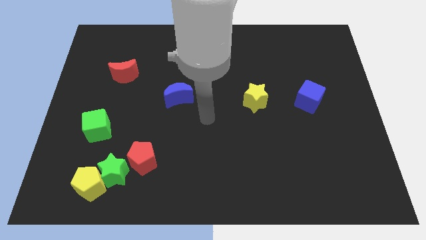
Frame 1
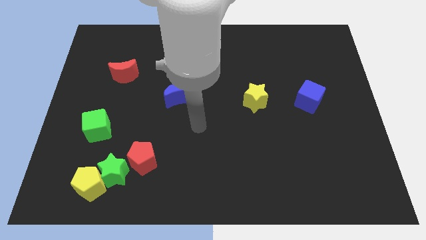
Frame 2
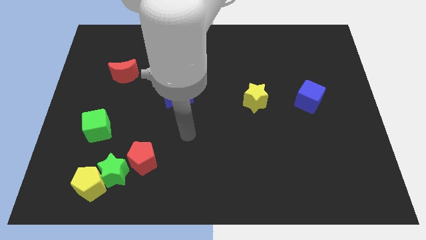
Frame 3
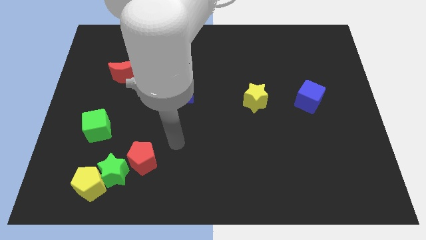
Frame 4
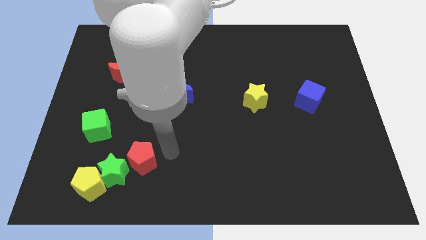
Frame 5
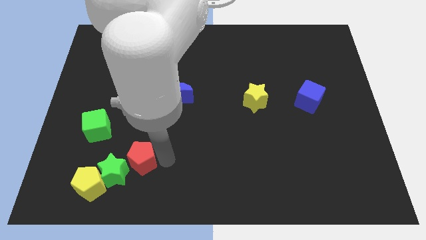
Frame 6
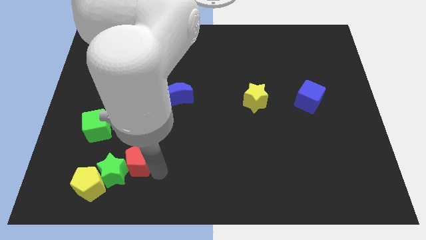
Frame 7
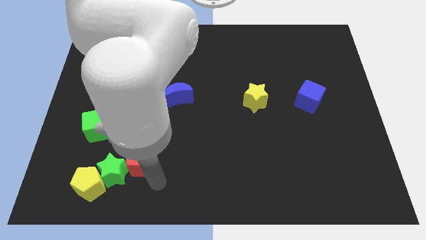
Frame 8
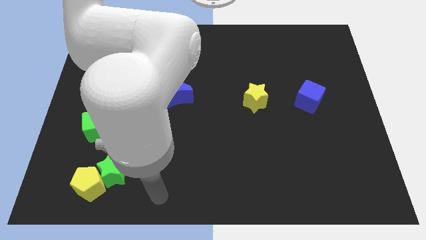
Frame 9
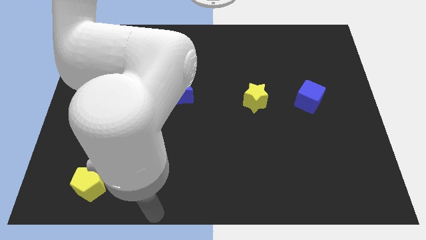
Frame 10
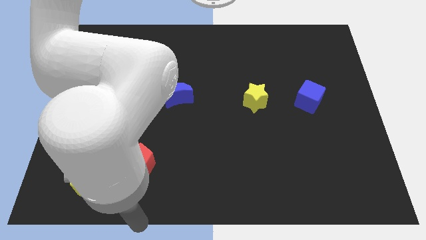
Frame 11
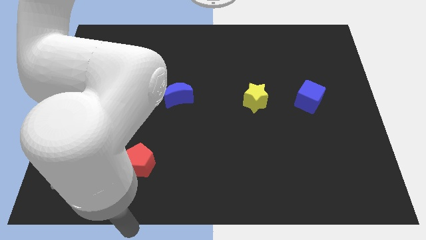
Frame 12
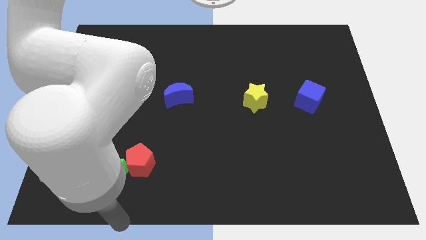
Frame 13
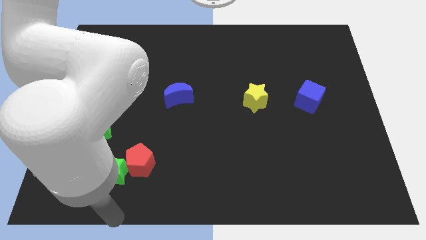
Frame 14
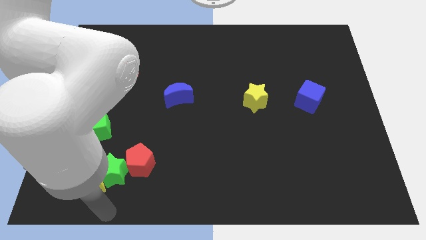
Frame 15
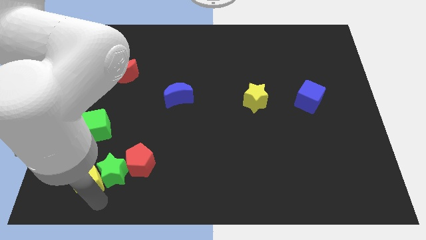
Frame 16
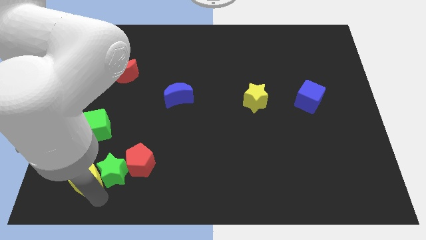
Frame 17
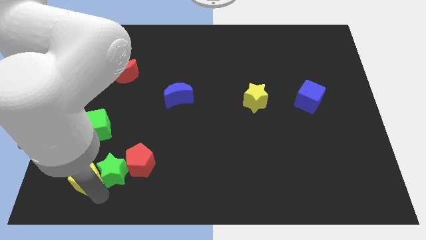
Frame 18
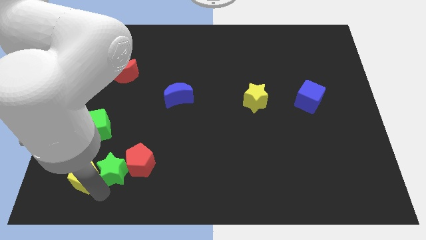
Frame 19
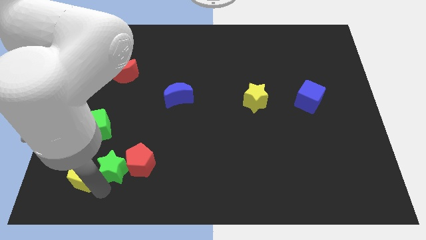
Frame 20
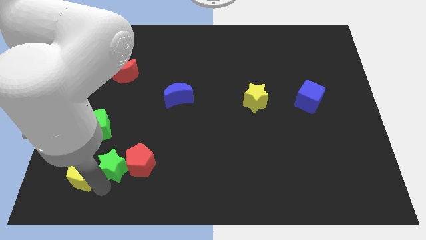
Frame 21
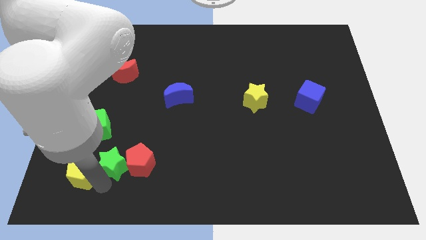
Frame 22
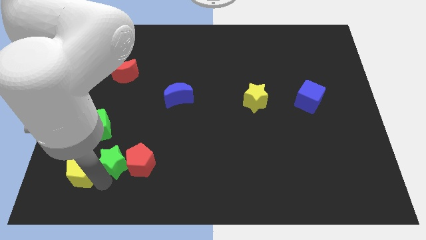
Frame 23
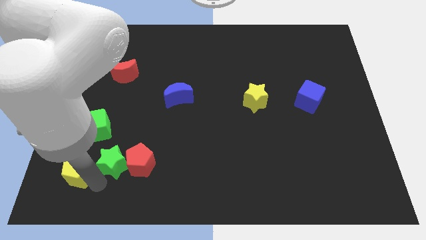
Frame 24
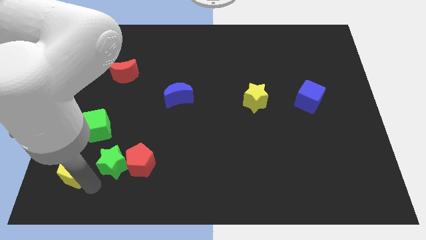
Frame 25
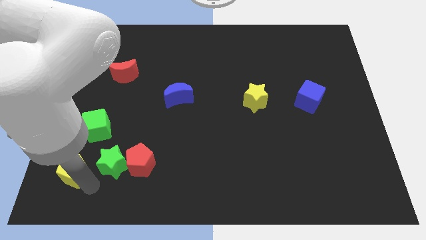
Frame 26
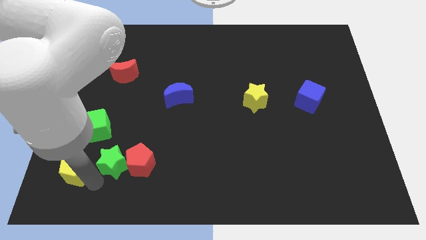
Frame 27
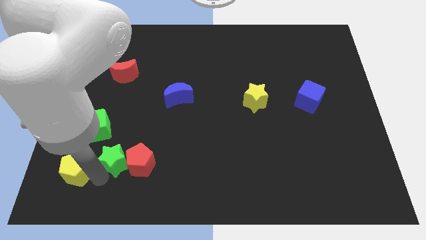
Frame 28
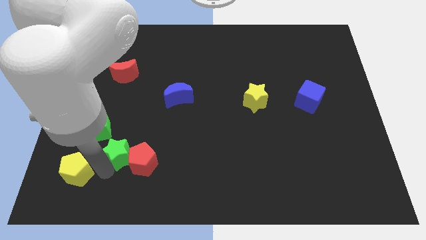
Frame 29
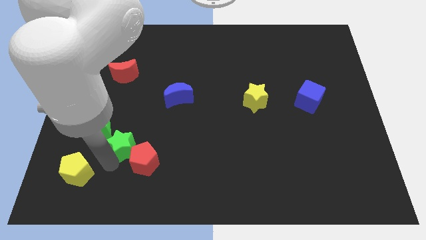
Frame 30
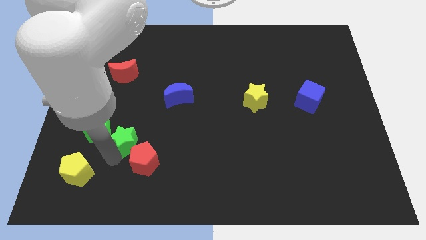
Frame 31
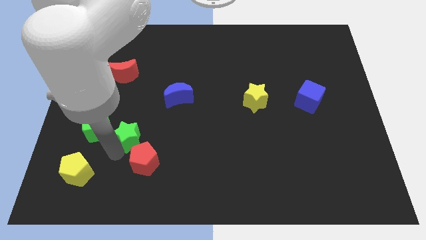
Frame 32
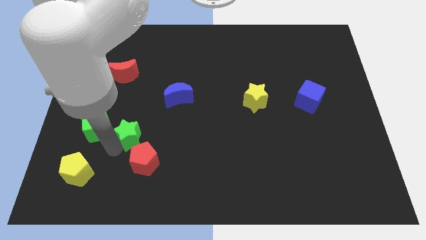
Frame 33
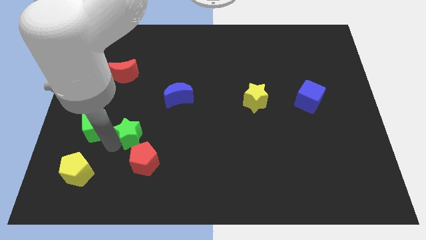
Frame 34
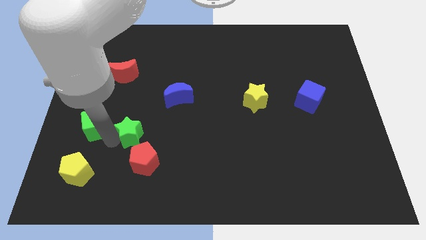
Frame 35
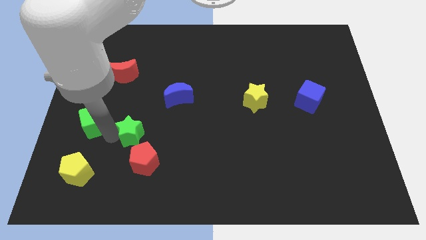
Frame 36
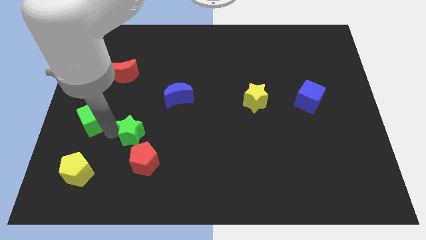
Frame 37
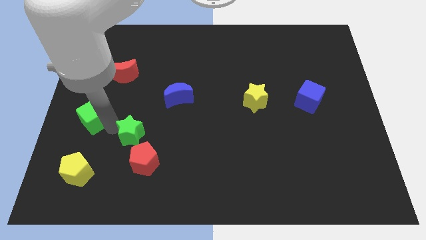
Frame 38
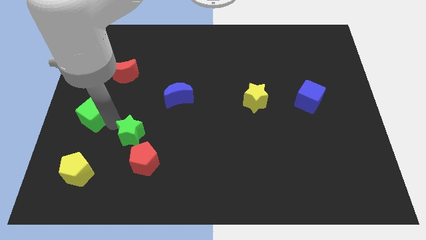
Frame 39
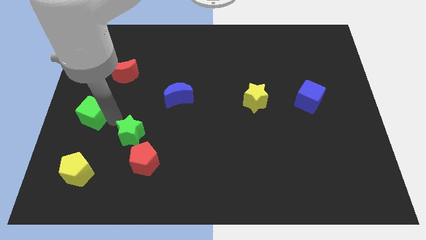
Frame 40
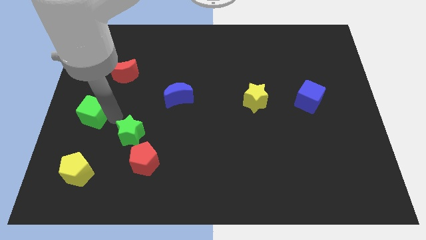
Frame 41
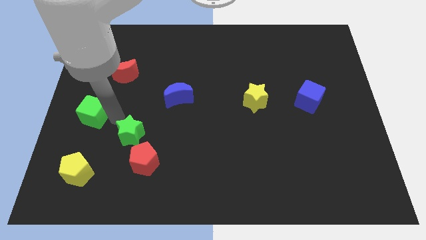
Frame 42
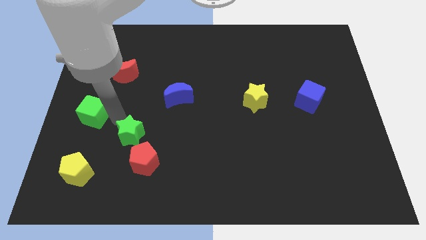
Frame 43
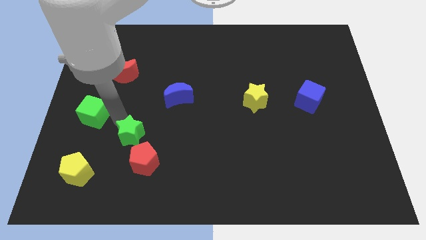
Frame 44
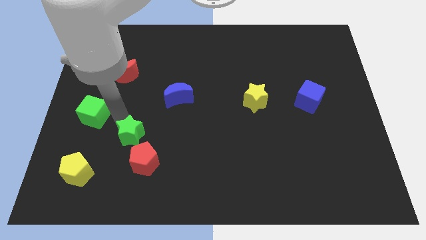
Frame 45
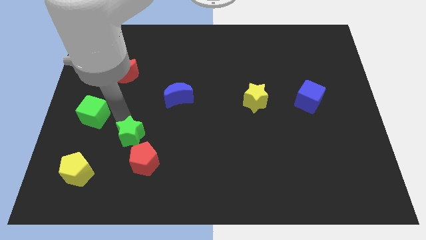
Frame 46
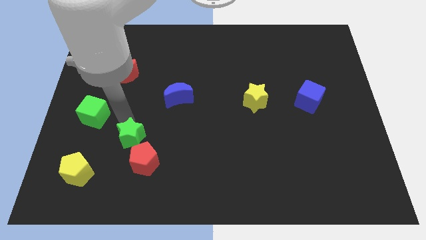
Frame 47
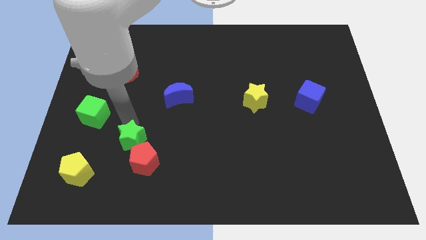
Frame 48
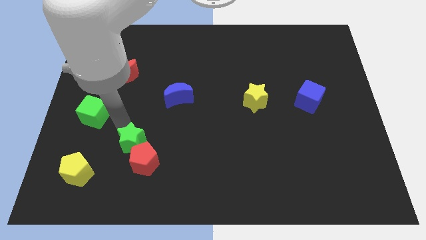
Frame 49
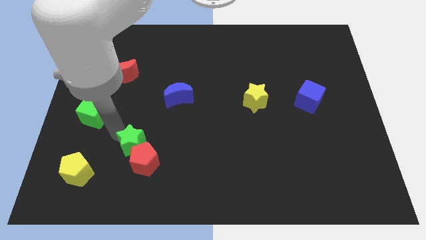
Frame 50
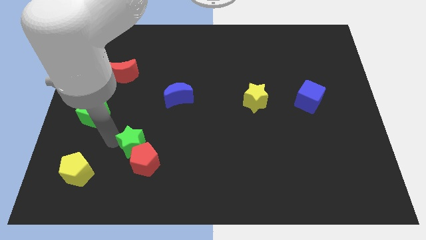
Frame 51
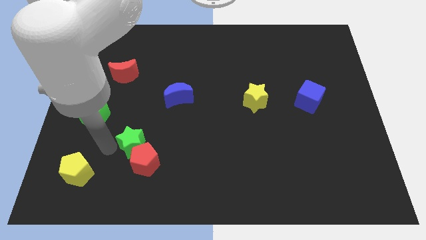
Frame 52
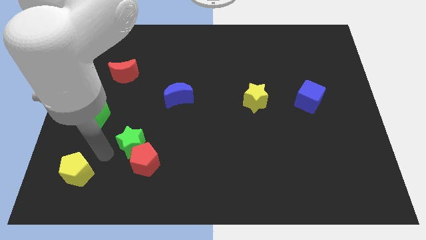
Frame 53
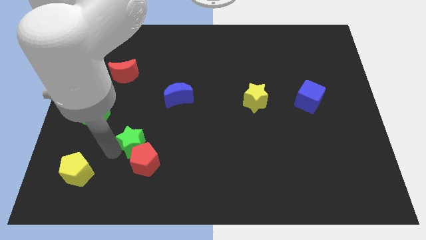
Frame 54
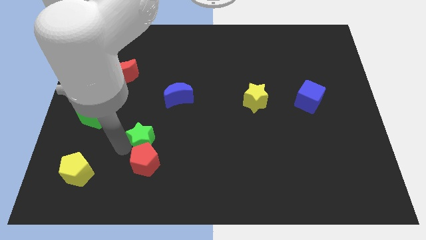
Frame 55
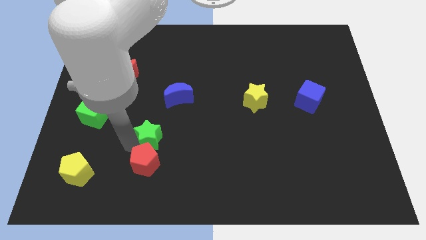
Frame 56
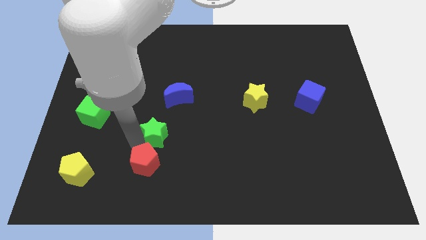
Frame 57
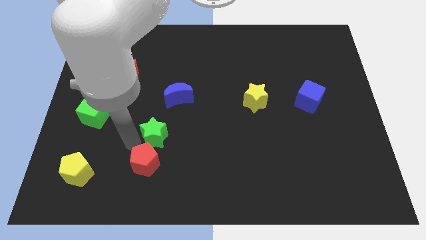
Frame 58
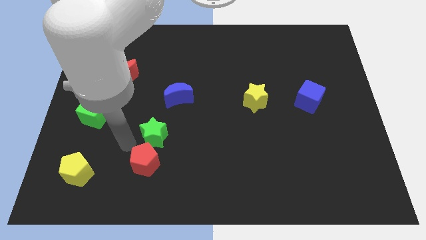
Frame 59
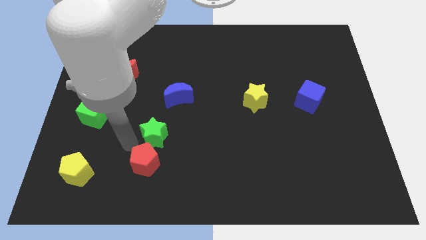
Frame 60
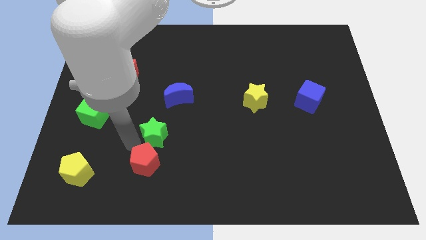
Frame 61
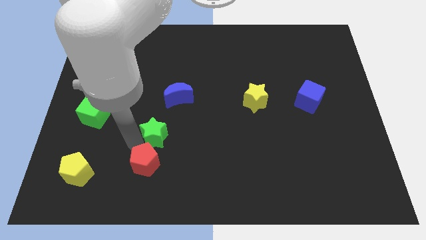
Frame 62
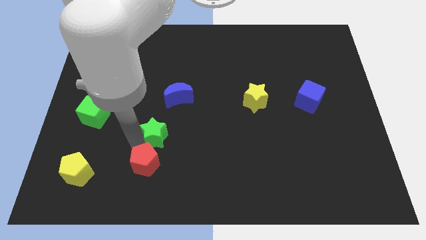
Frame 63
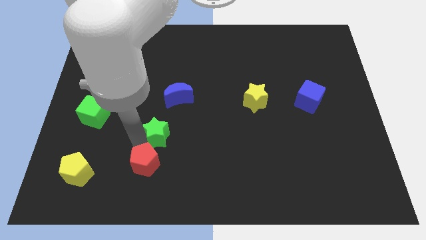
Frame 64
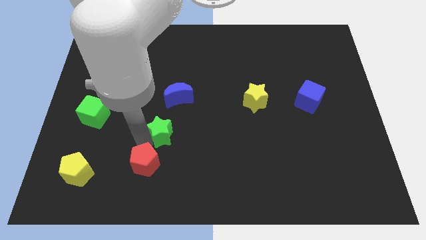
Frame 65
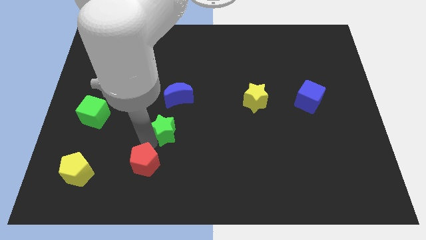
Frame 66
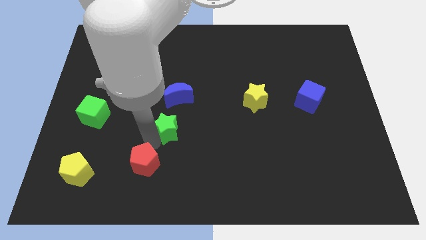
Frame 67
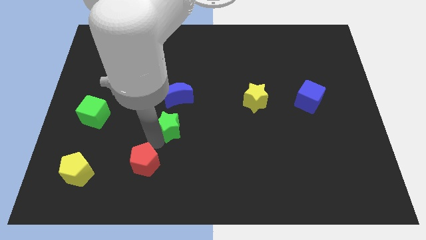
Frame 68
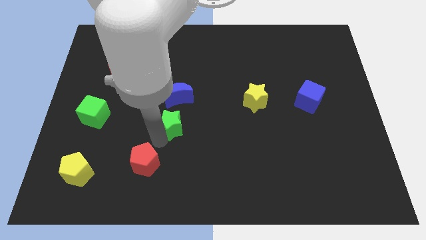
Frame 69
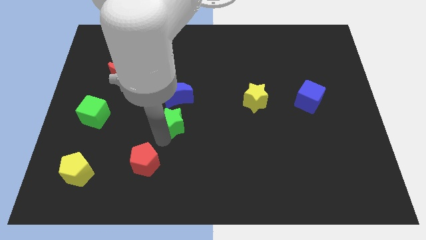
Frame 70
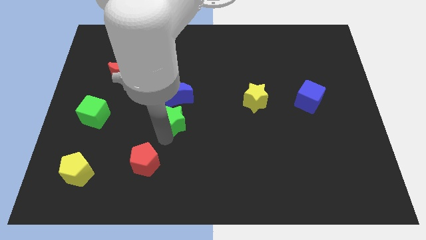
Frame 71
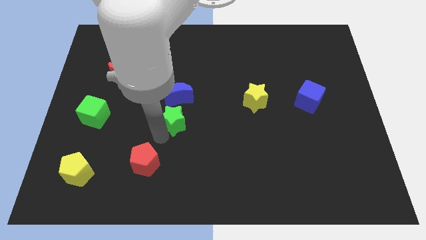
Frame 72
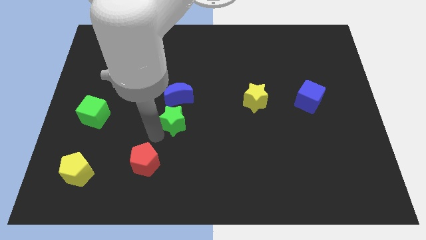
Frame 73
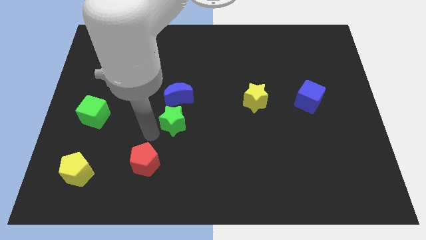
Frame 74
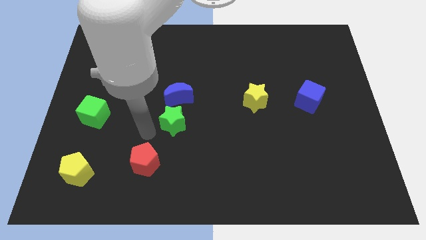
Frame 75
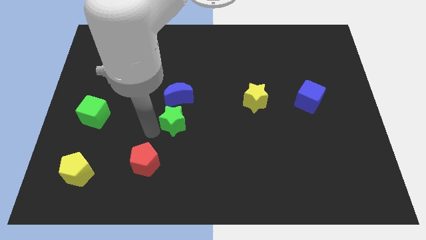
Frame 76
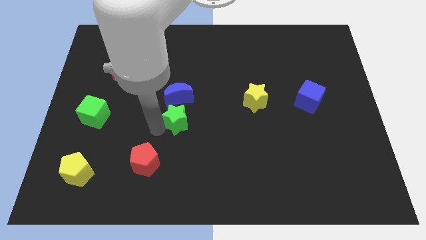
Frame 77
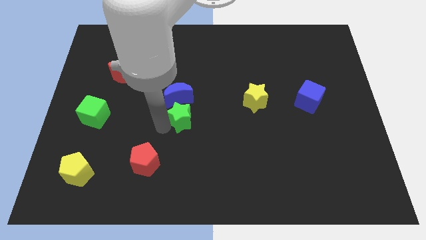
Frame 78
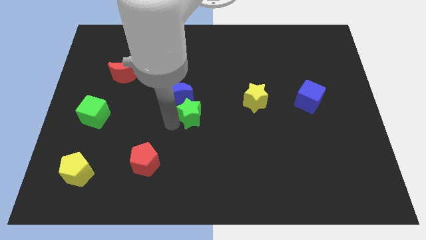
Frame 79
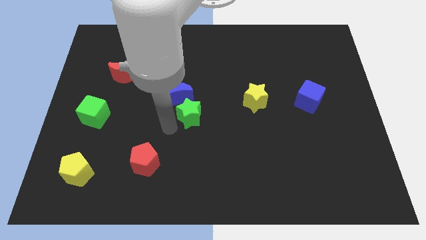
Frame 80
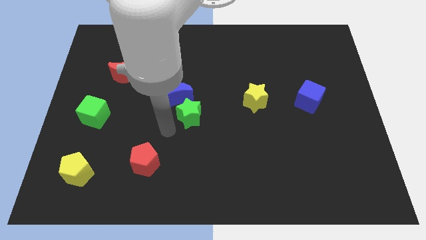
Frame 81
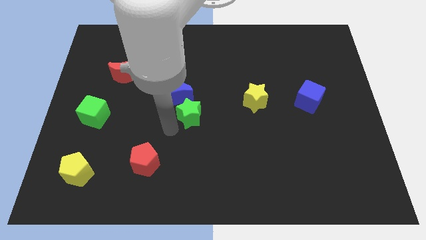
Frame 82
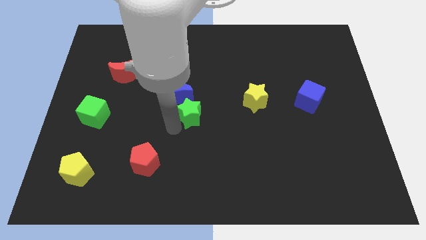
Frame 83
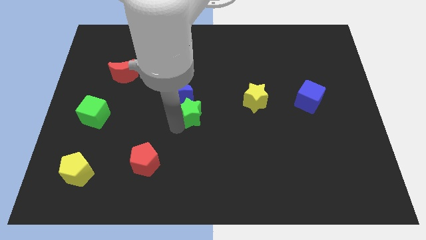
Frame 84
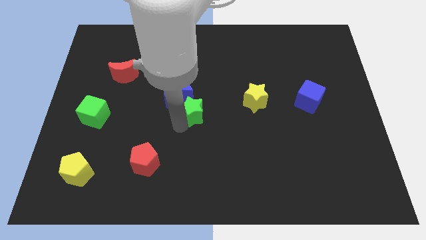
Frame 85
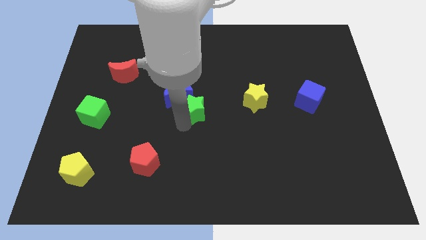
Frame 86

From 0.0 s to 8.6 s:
push the green star to the left of the yellow star
